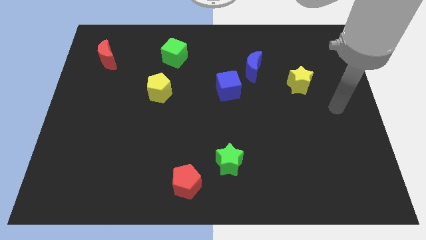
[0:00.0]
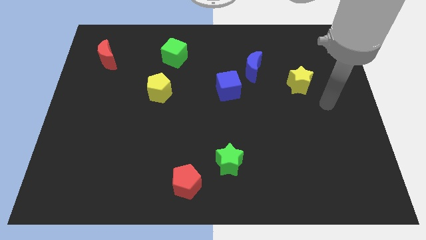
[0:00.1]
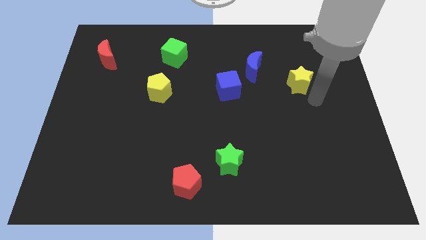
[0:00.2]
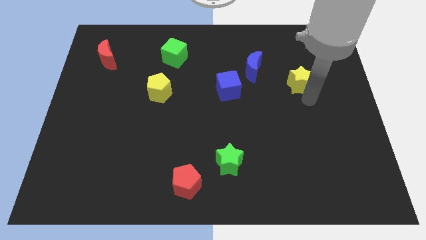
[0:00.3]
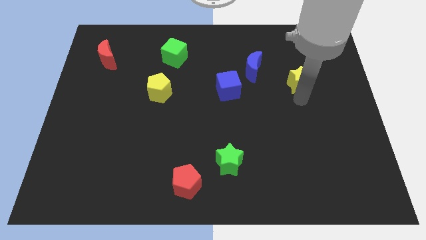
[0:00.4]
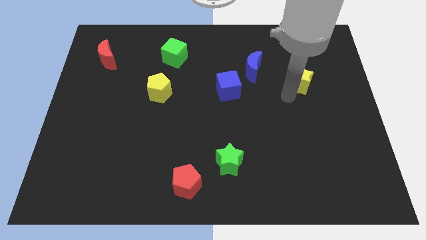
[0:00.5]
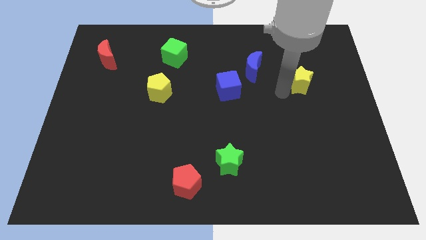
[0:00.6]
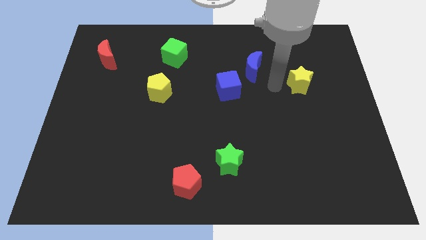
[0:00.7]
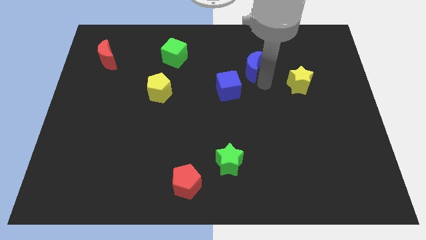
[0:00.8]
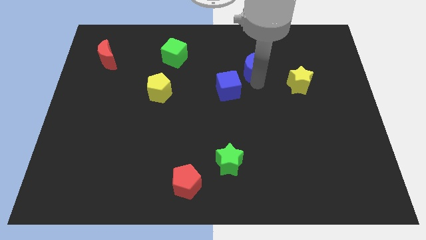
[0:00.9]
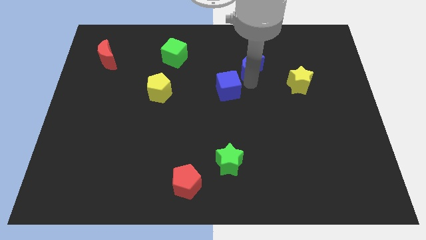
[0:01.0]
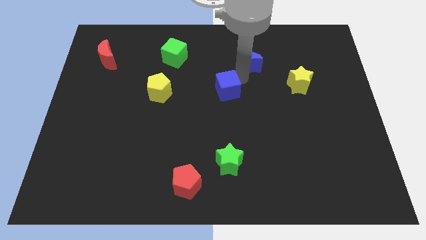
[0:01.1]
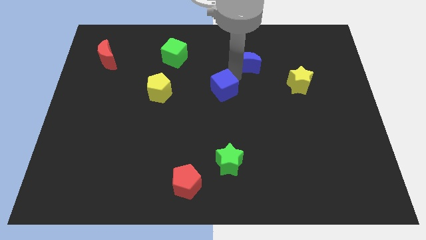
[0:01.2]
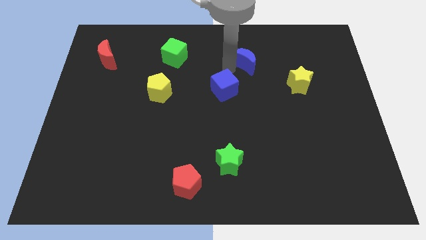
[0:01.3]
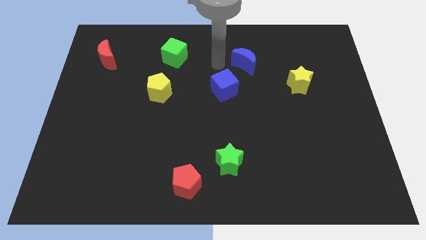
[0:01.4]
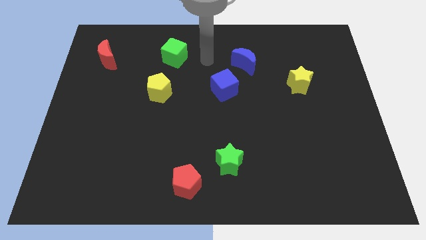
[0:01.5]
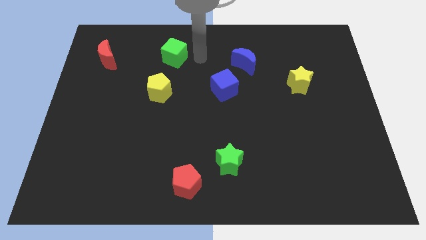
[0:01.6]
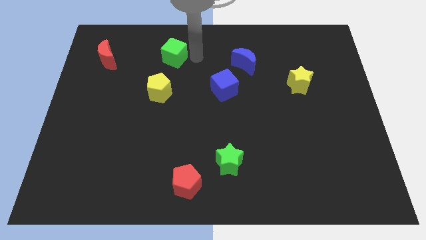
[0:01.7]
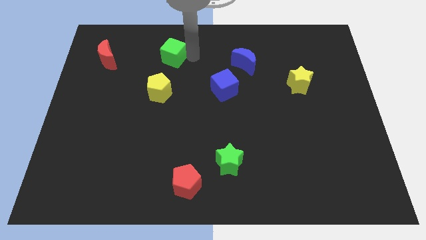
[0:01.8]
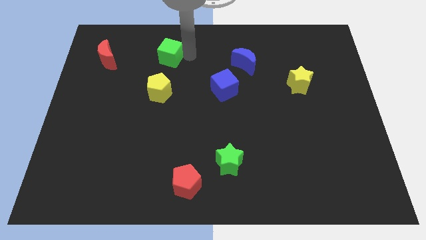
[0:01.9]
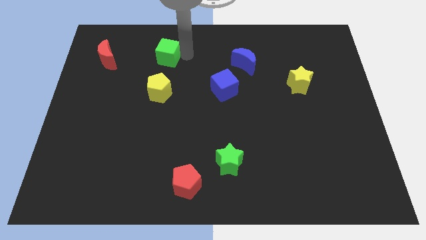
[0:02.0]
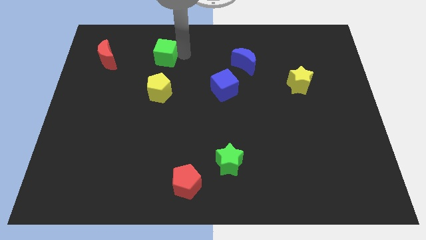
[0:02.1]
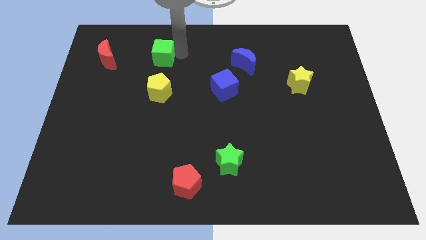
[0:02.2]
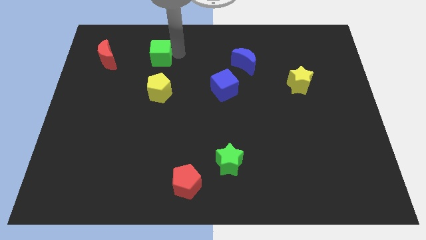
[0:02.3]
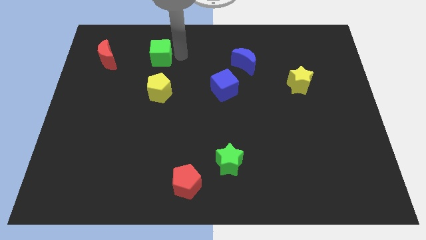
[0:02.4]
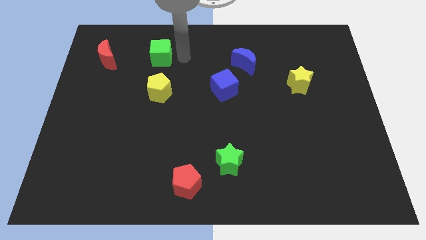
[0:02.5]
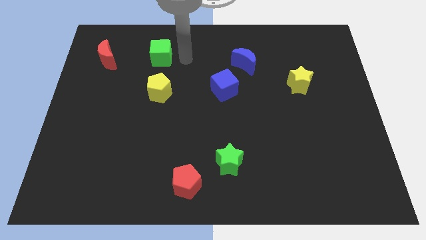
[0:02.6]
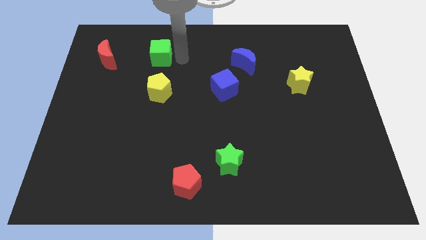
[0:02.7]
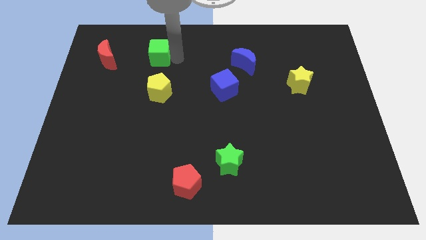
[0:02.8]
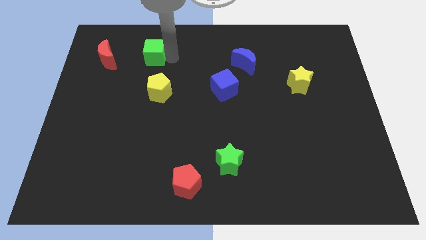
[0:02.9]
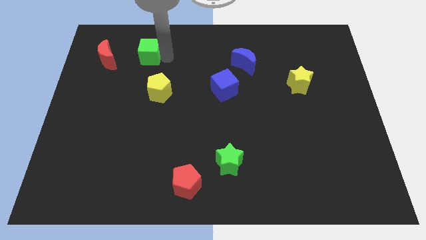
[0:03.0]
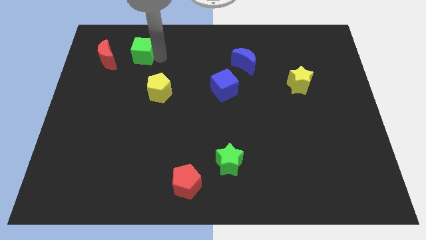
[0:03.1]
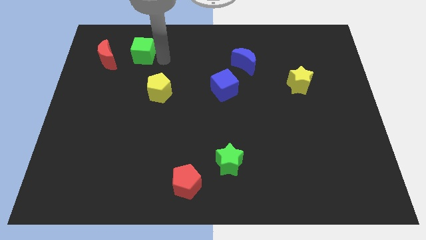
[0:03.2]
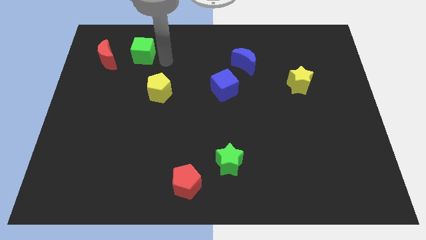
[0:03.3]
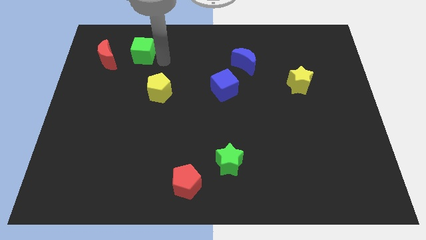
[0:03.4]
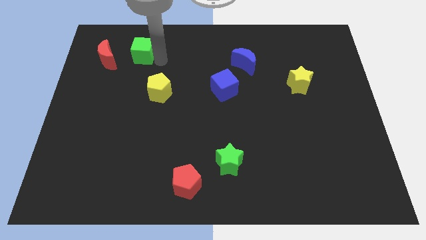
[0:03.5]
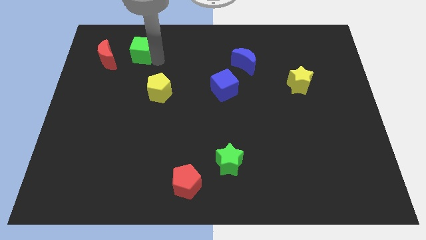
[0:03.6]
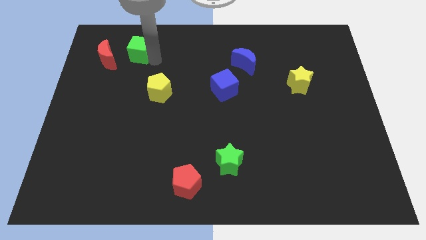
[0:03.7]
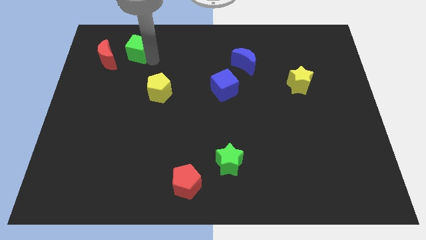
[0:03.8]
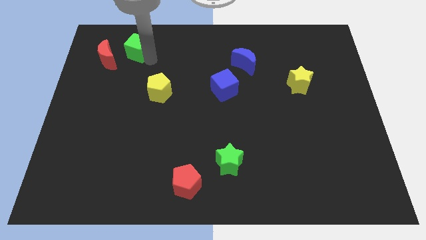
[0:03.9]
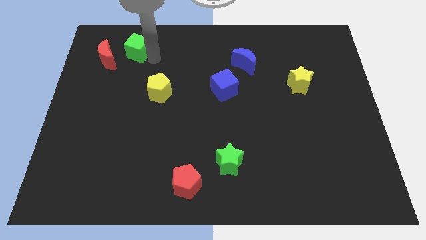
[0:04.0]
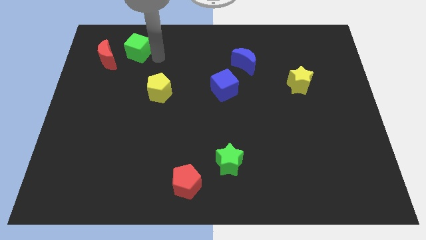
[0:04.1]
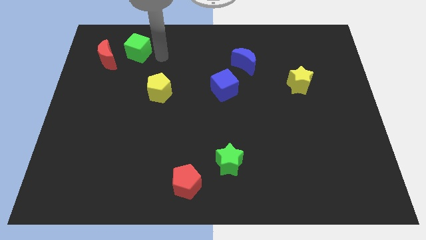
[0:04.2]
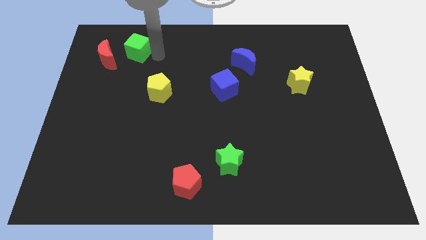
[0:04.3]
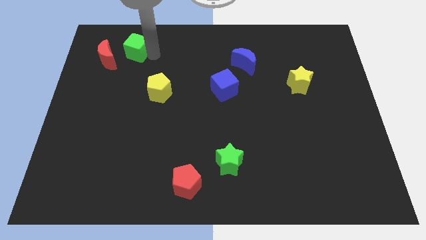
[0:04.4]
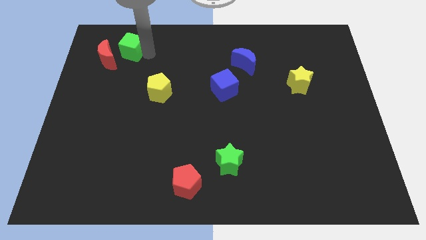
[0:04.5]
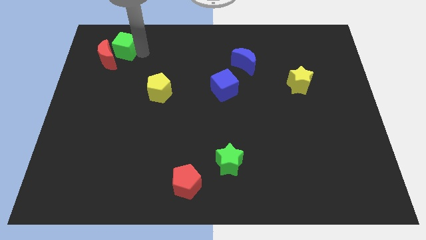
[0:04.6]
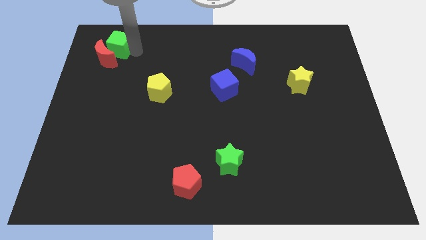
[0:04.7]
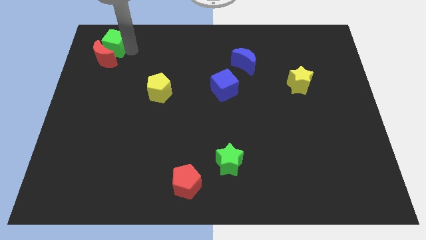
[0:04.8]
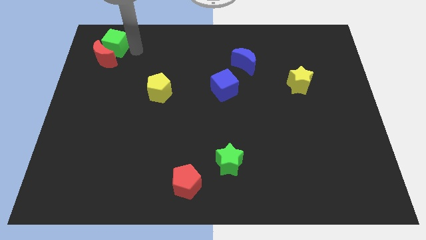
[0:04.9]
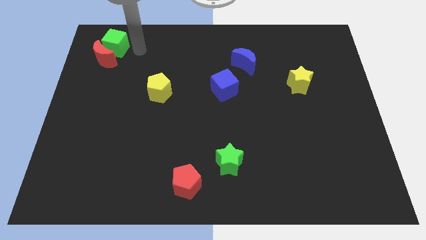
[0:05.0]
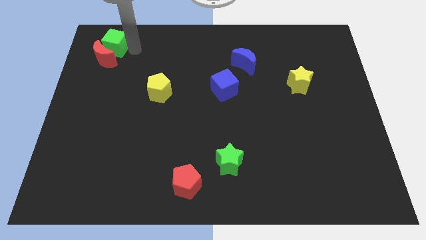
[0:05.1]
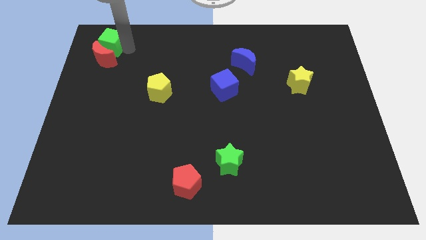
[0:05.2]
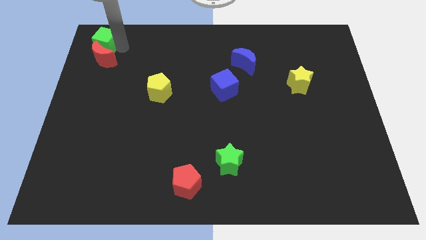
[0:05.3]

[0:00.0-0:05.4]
slide the green cube to the top left
